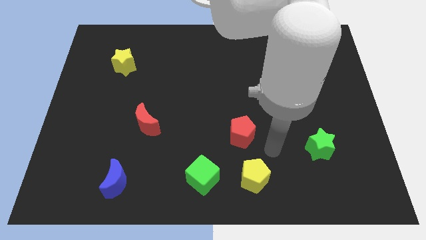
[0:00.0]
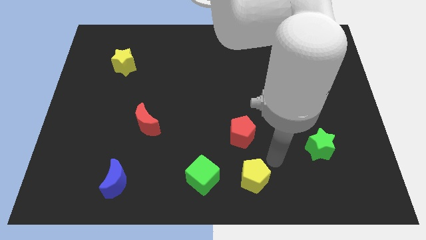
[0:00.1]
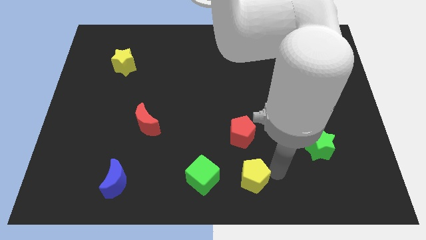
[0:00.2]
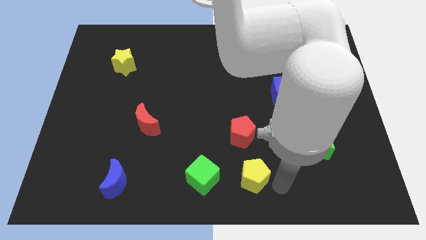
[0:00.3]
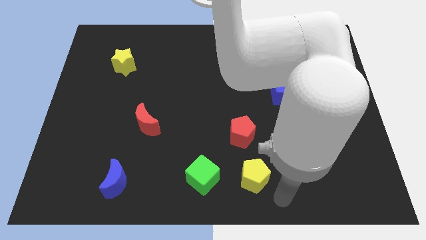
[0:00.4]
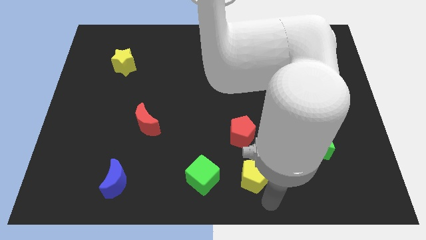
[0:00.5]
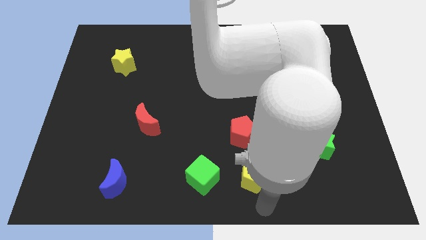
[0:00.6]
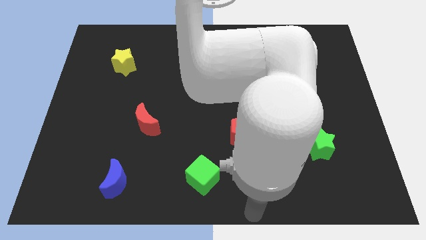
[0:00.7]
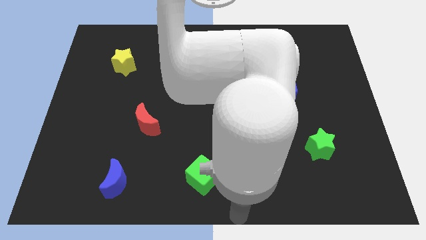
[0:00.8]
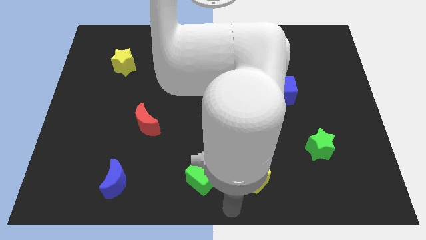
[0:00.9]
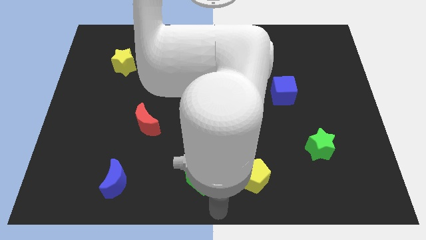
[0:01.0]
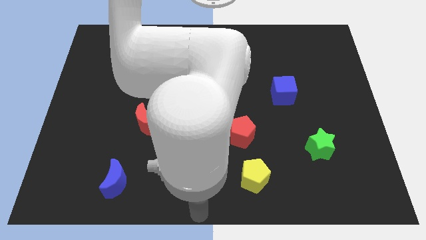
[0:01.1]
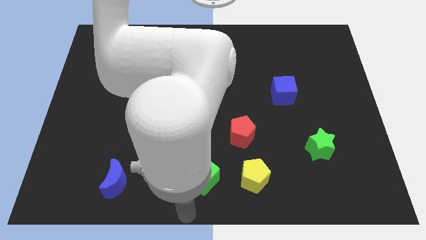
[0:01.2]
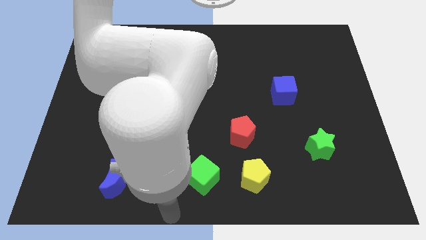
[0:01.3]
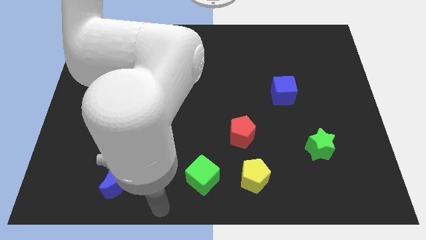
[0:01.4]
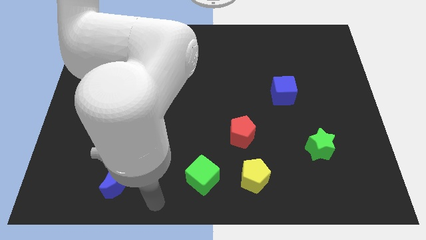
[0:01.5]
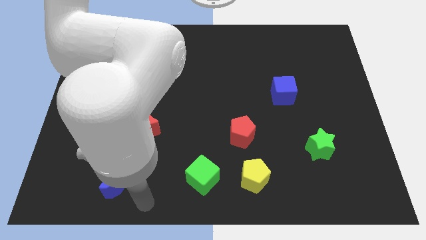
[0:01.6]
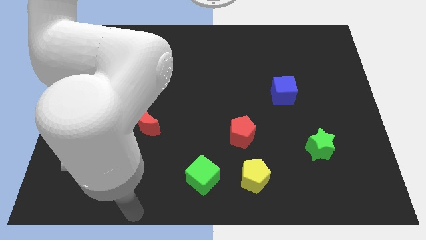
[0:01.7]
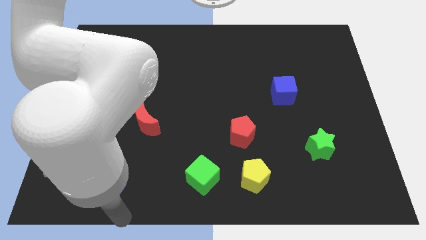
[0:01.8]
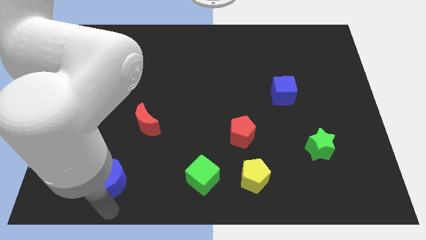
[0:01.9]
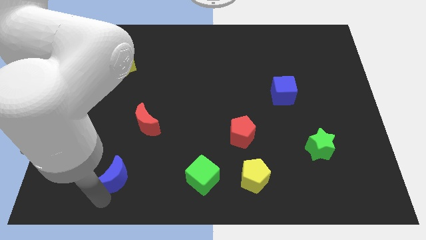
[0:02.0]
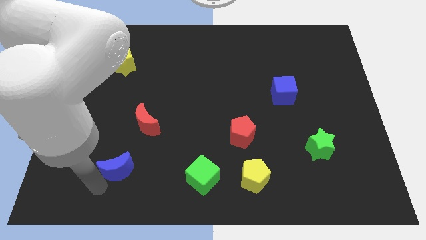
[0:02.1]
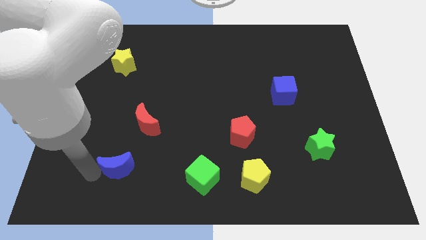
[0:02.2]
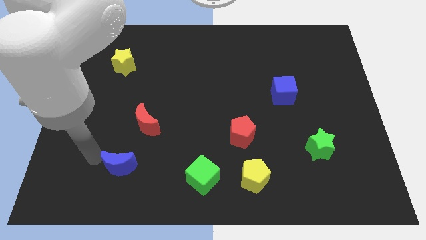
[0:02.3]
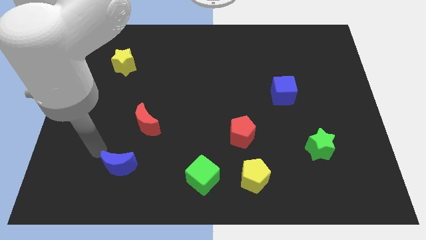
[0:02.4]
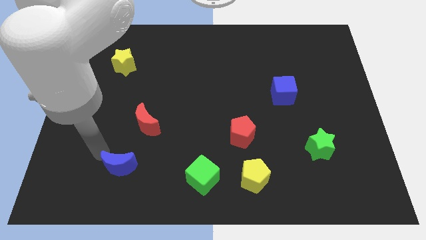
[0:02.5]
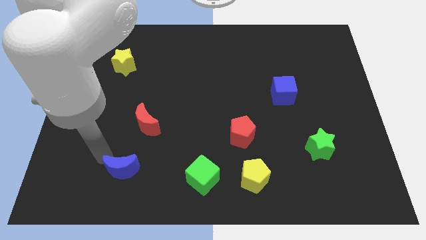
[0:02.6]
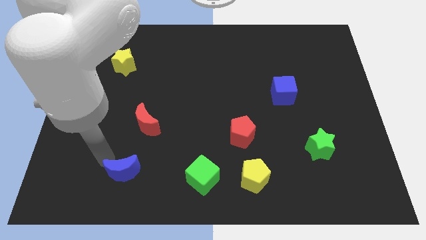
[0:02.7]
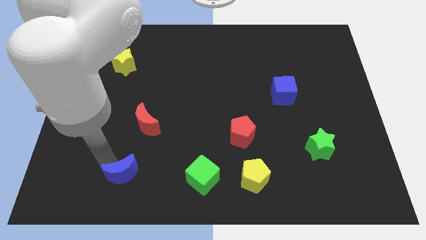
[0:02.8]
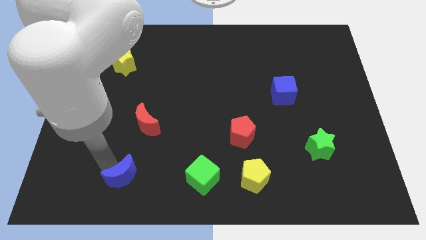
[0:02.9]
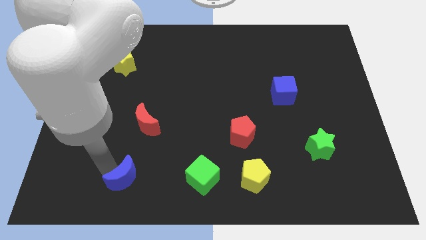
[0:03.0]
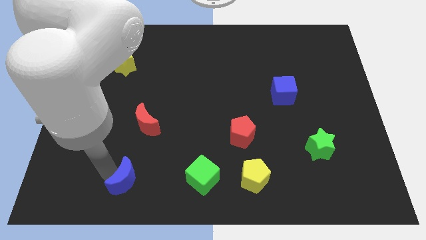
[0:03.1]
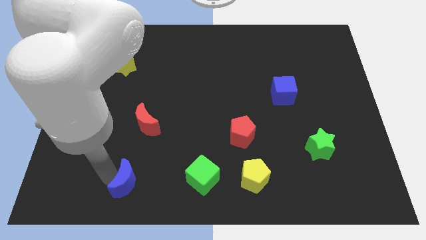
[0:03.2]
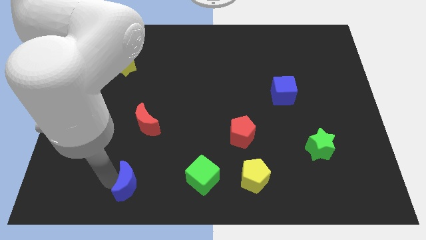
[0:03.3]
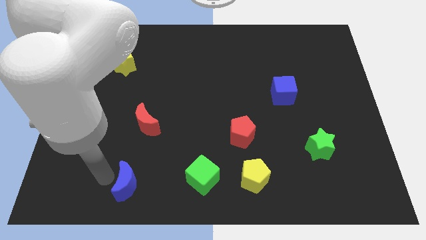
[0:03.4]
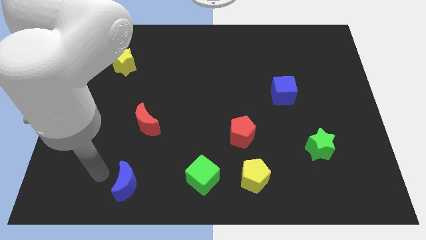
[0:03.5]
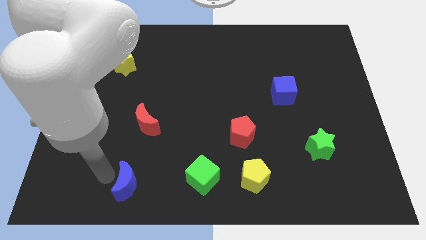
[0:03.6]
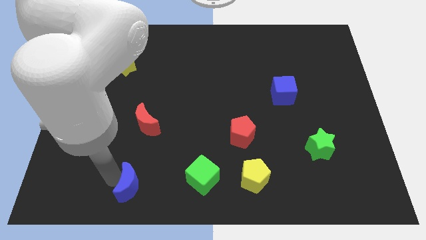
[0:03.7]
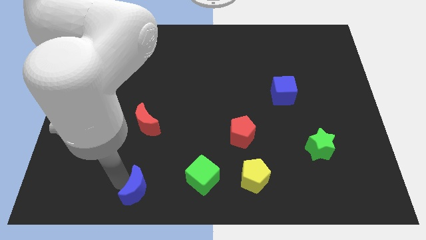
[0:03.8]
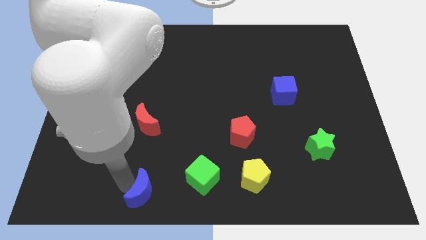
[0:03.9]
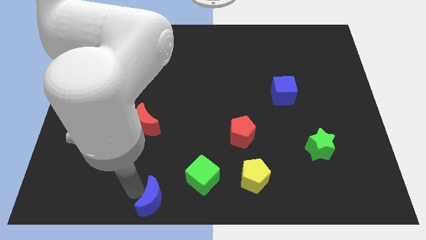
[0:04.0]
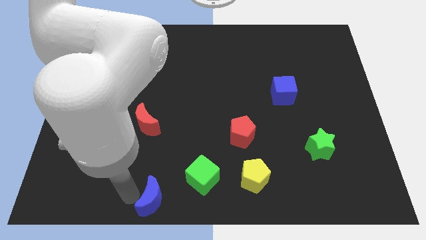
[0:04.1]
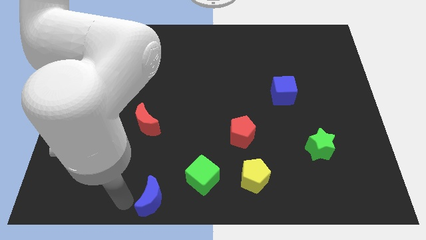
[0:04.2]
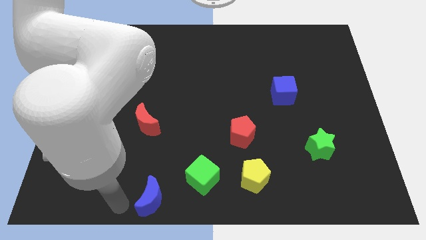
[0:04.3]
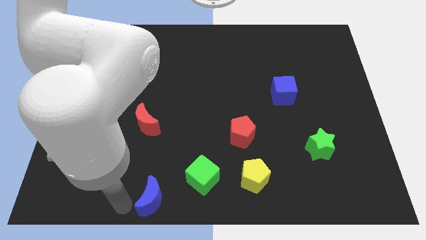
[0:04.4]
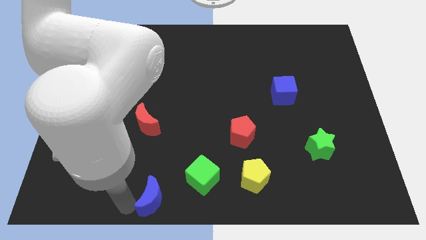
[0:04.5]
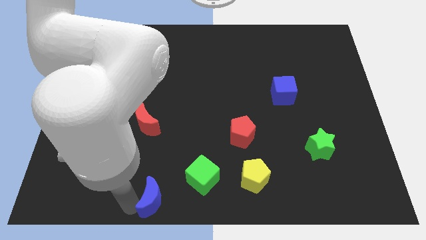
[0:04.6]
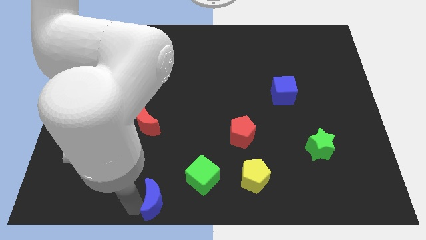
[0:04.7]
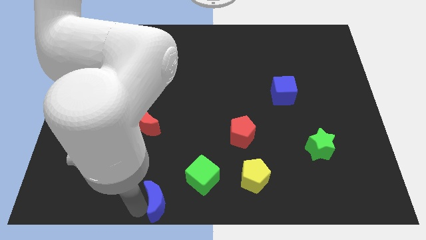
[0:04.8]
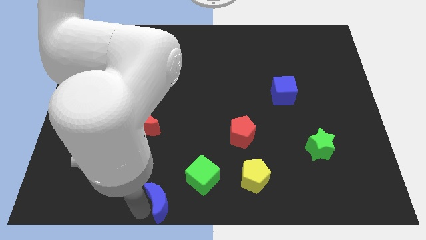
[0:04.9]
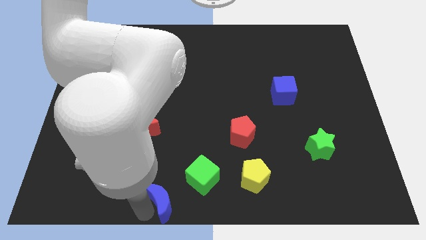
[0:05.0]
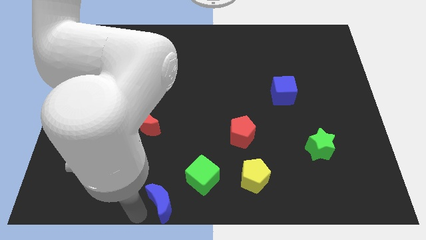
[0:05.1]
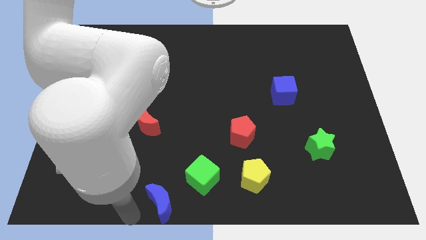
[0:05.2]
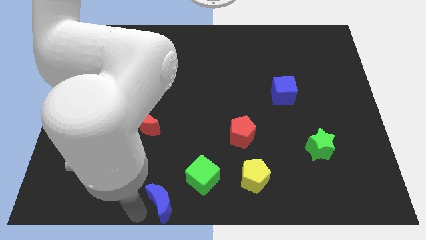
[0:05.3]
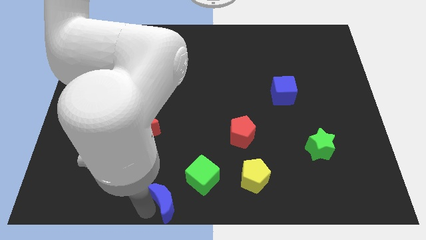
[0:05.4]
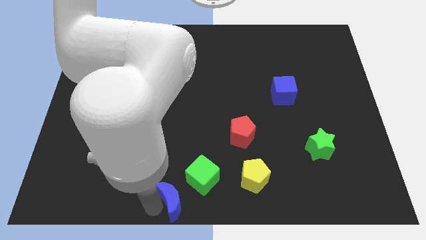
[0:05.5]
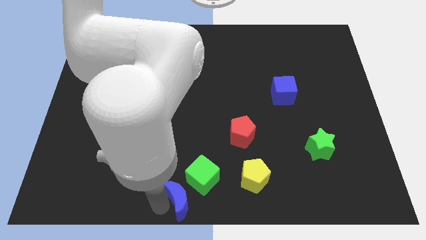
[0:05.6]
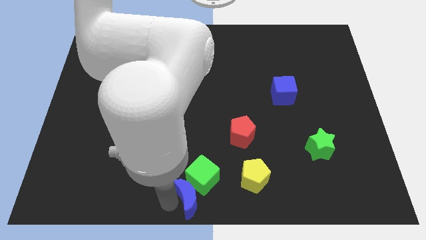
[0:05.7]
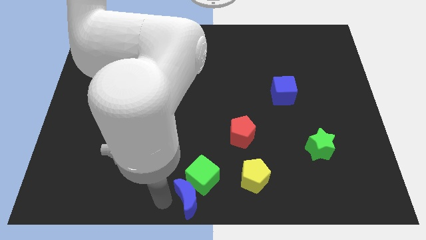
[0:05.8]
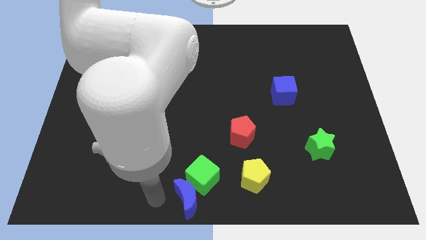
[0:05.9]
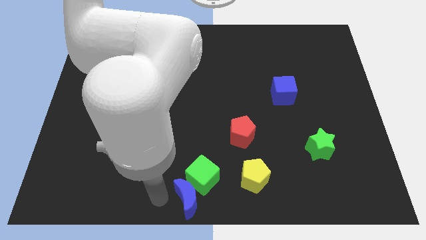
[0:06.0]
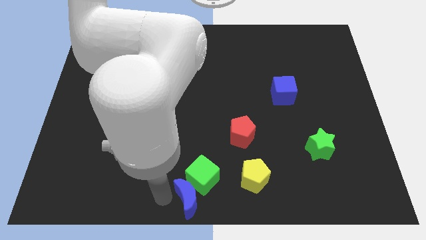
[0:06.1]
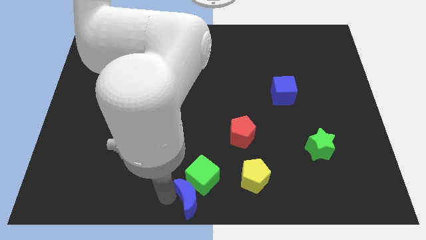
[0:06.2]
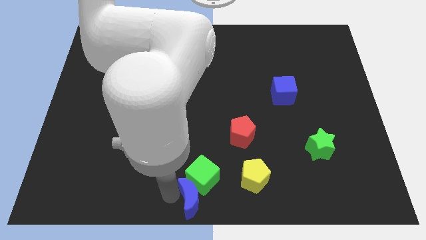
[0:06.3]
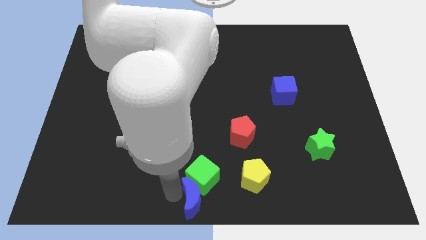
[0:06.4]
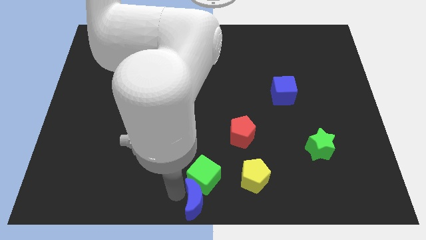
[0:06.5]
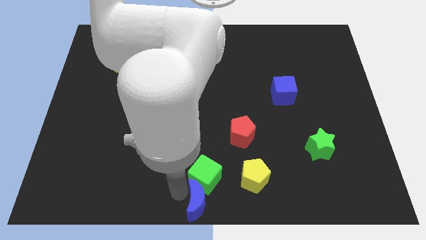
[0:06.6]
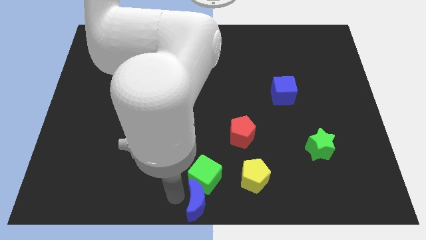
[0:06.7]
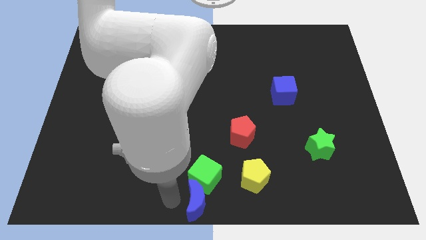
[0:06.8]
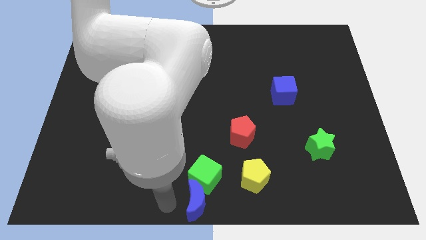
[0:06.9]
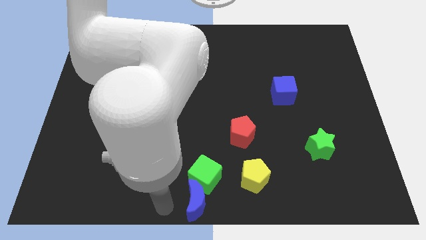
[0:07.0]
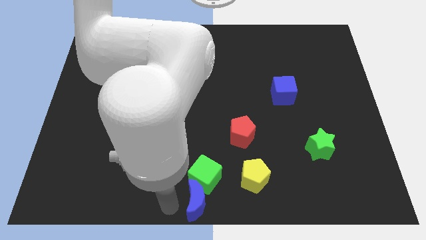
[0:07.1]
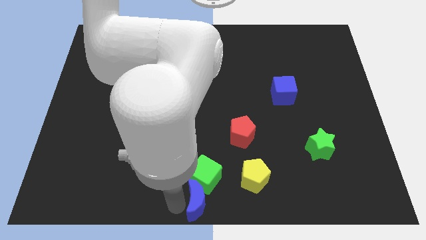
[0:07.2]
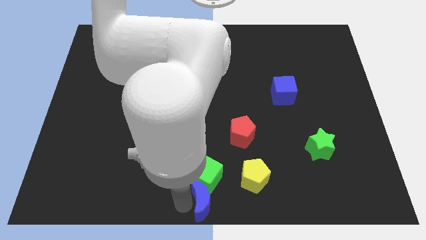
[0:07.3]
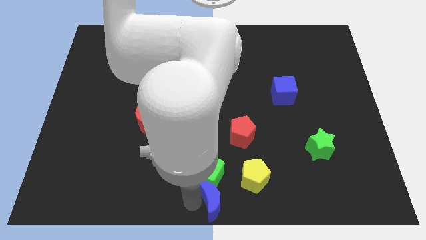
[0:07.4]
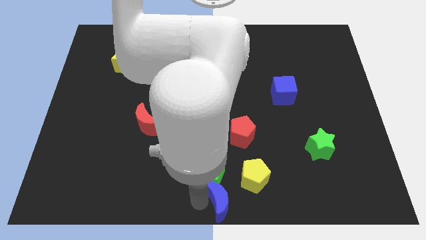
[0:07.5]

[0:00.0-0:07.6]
move the blue moon right

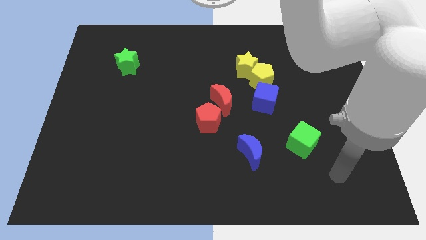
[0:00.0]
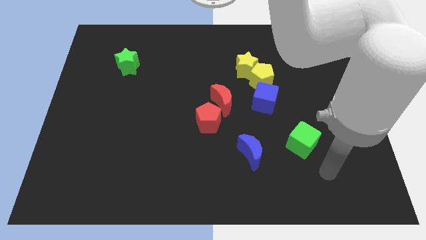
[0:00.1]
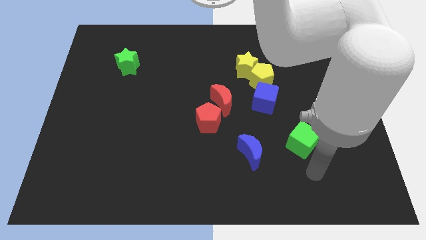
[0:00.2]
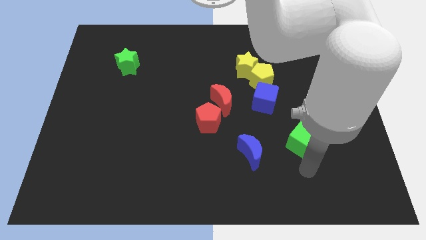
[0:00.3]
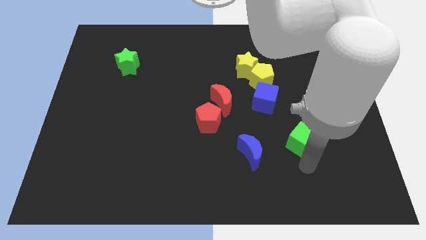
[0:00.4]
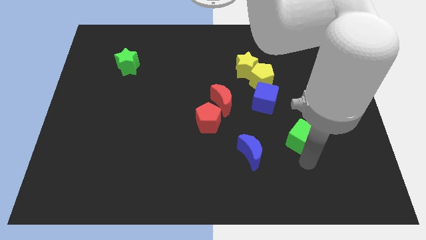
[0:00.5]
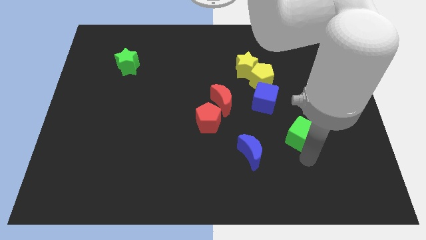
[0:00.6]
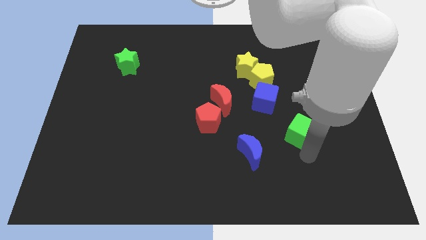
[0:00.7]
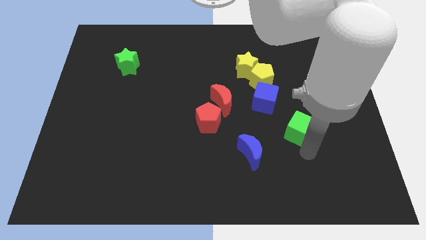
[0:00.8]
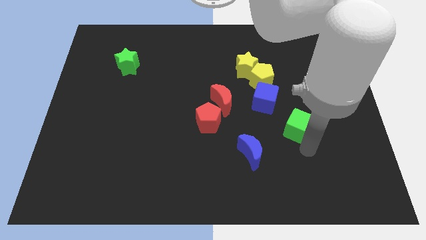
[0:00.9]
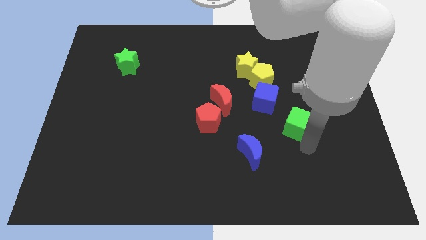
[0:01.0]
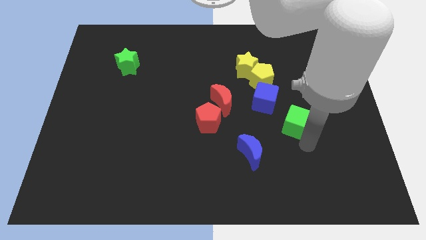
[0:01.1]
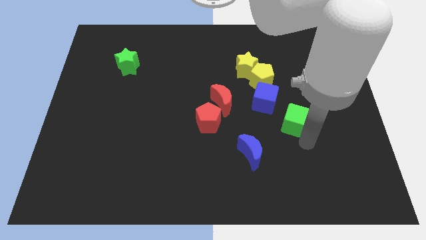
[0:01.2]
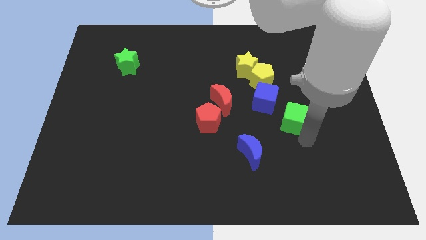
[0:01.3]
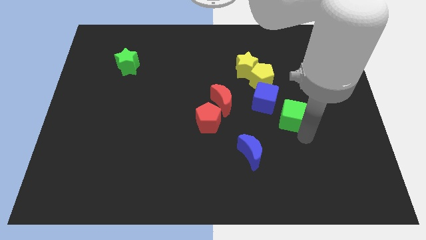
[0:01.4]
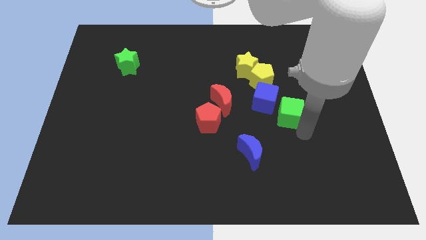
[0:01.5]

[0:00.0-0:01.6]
slightly move the green cube up
